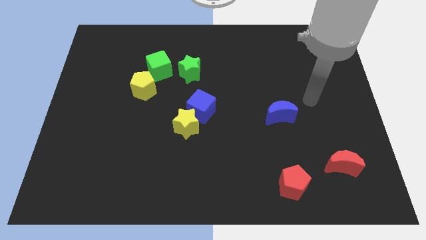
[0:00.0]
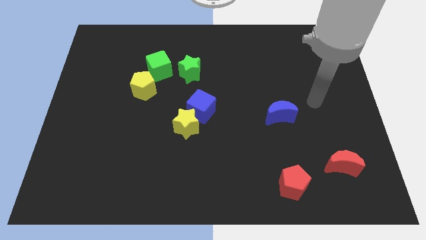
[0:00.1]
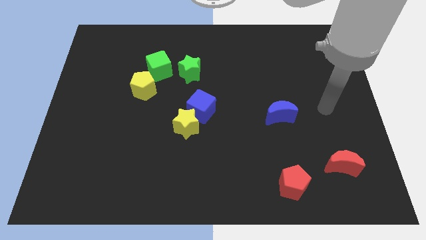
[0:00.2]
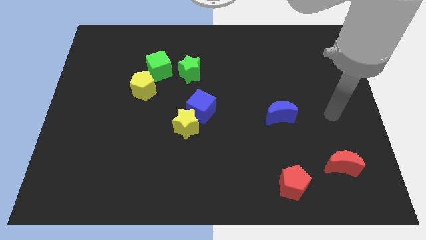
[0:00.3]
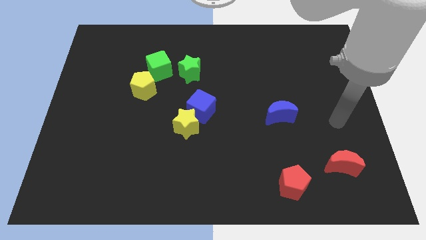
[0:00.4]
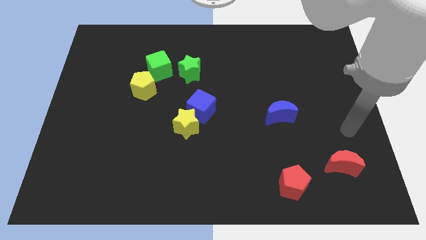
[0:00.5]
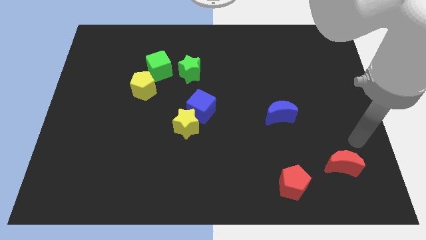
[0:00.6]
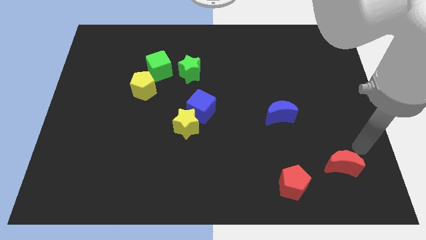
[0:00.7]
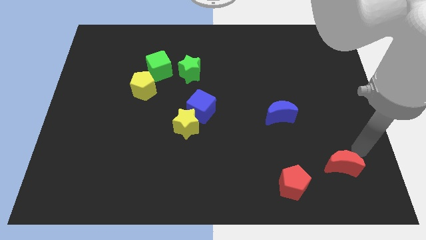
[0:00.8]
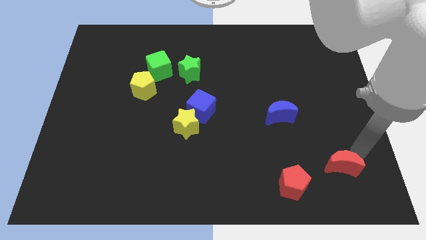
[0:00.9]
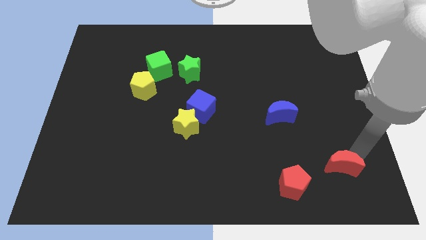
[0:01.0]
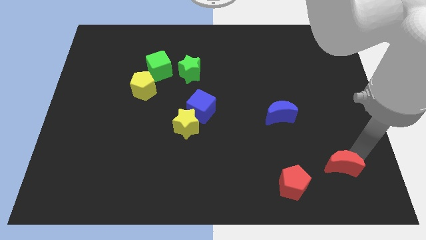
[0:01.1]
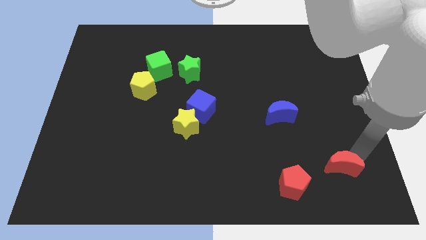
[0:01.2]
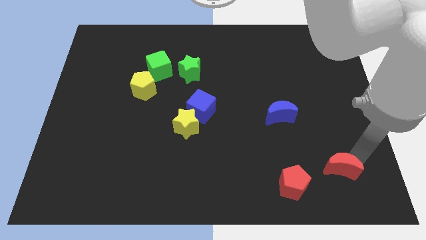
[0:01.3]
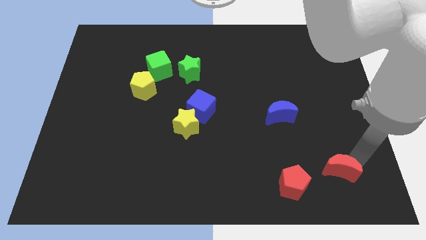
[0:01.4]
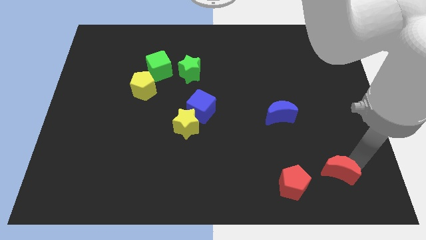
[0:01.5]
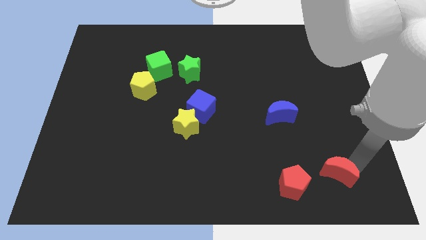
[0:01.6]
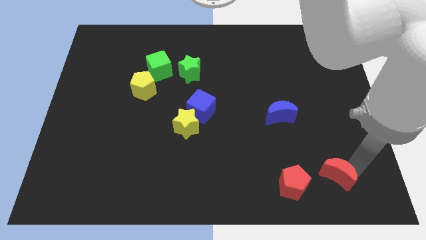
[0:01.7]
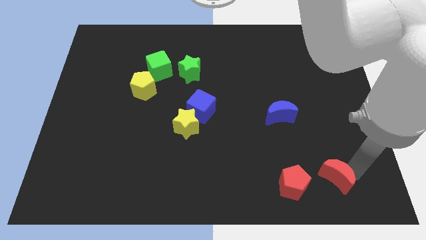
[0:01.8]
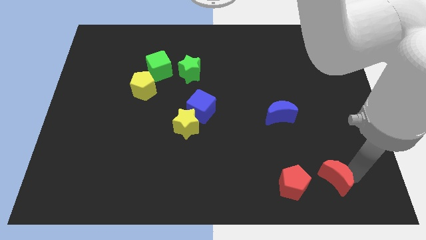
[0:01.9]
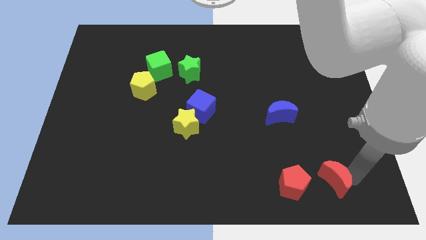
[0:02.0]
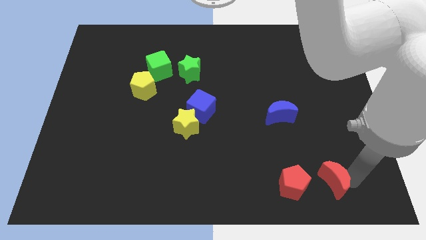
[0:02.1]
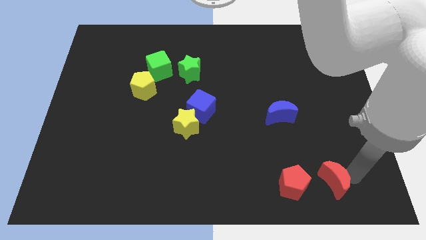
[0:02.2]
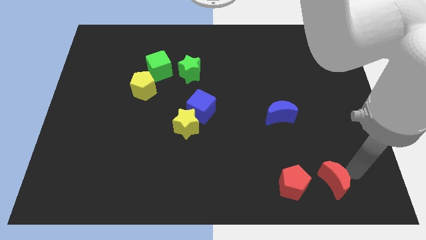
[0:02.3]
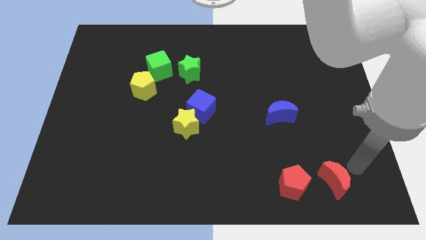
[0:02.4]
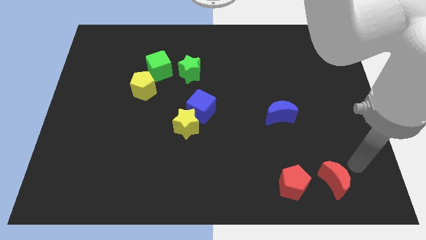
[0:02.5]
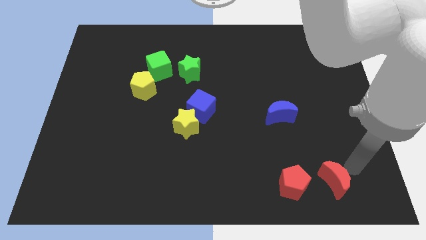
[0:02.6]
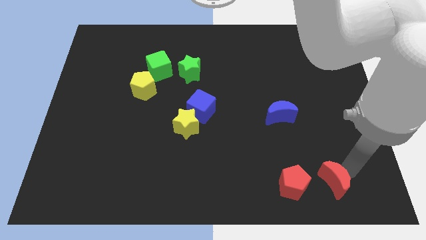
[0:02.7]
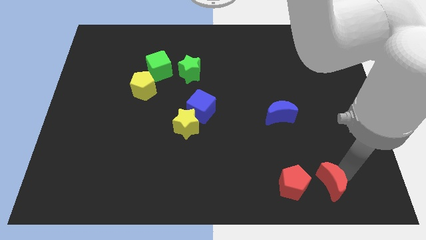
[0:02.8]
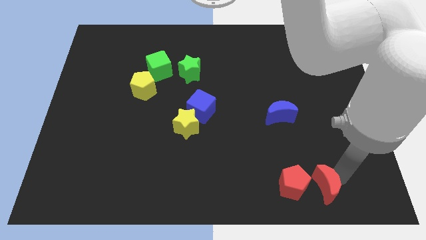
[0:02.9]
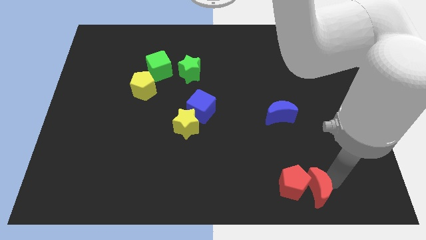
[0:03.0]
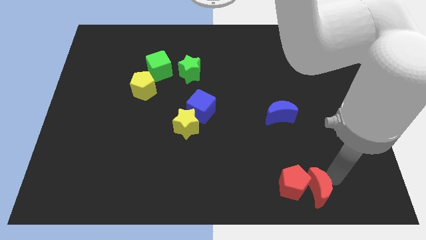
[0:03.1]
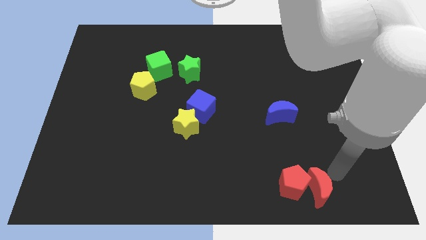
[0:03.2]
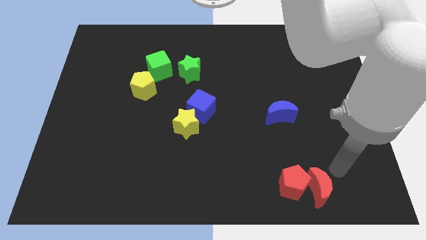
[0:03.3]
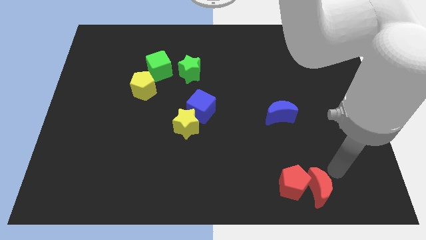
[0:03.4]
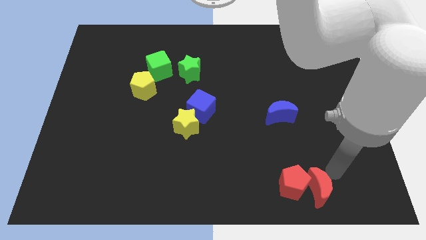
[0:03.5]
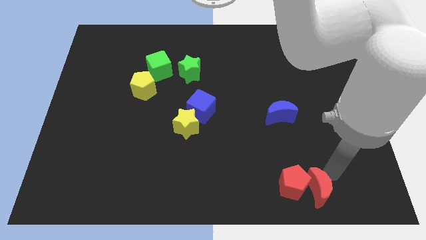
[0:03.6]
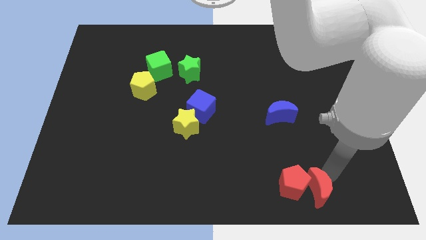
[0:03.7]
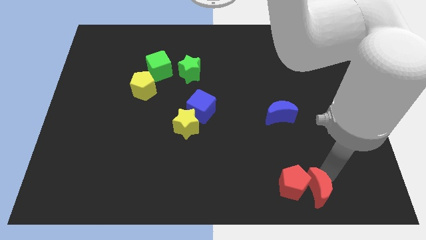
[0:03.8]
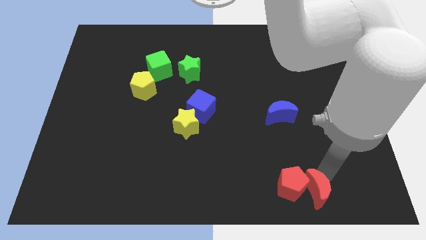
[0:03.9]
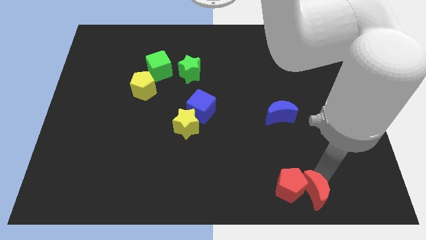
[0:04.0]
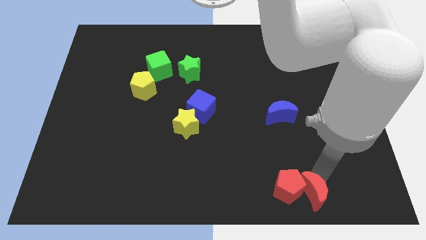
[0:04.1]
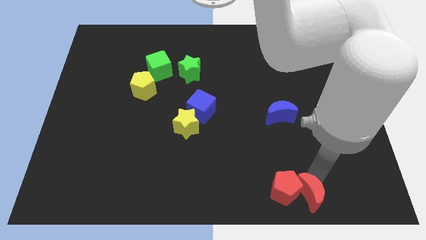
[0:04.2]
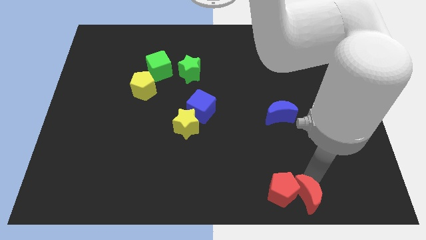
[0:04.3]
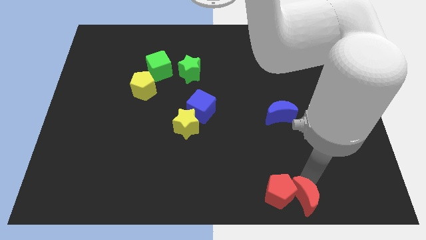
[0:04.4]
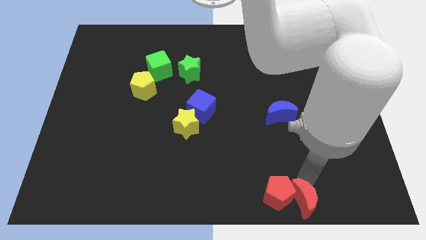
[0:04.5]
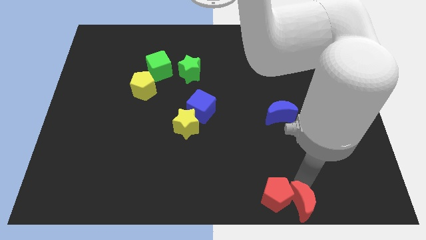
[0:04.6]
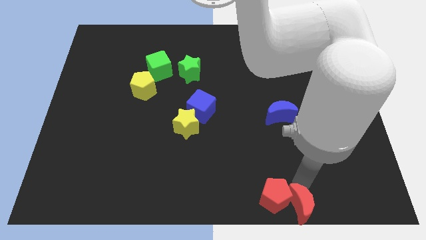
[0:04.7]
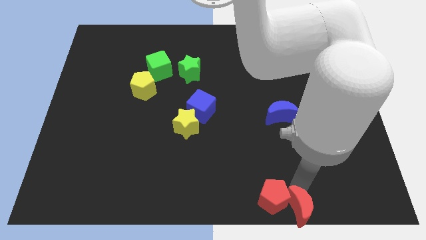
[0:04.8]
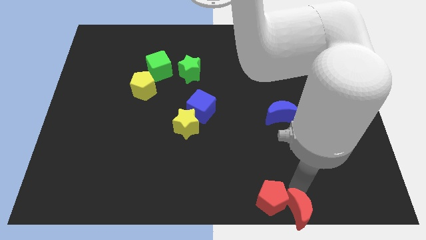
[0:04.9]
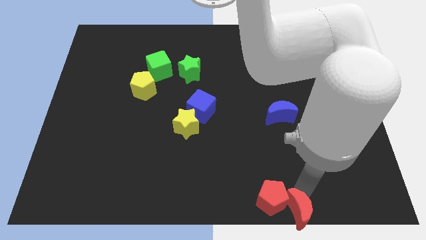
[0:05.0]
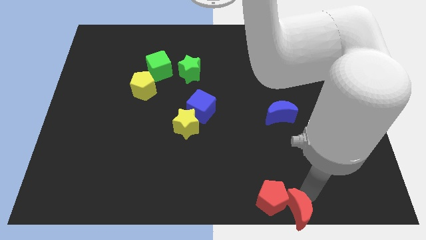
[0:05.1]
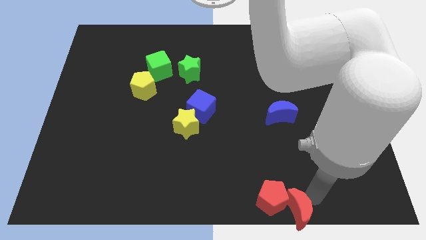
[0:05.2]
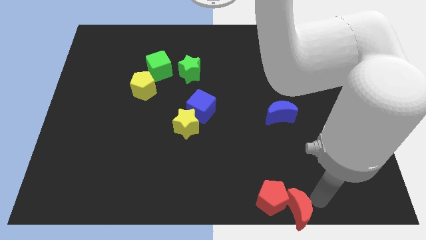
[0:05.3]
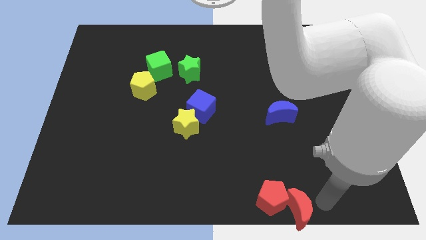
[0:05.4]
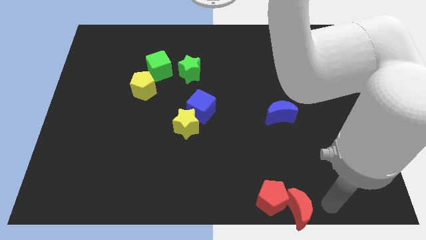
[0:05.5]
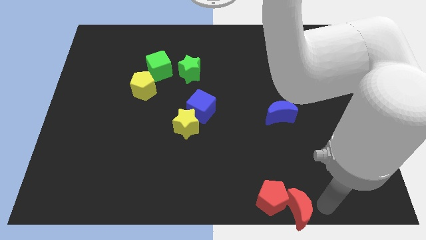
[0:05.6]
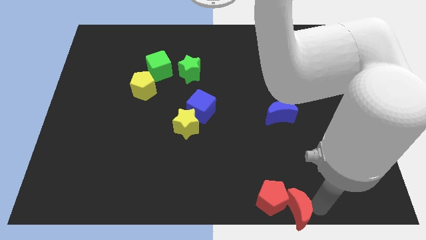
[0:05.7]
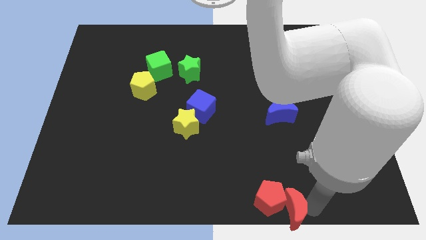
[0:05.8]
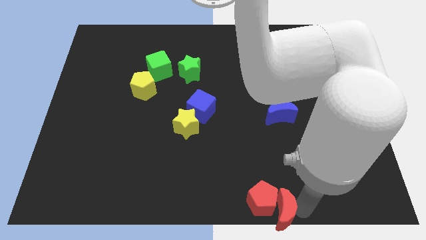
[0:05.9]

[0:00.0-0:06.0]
slide the red moon to the bottom side
